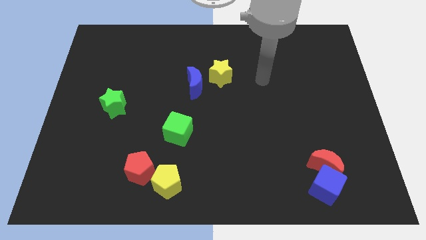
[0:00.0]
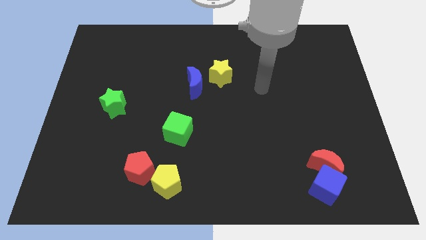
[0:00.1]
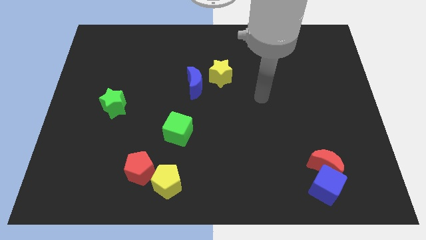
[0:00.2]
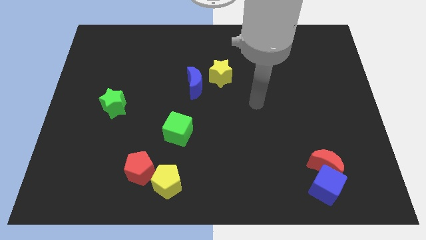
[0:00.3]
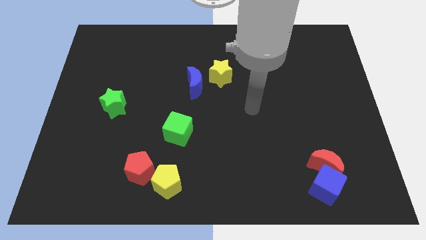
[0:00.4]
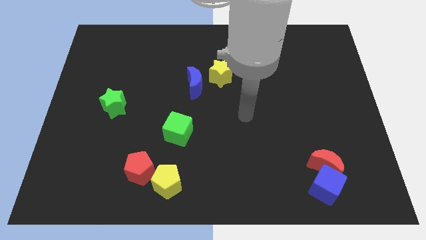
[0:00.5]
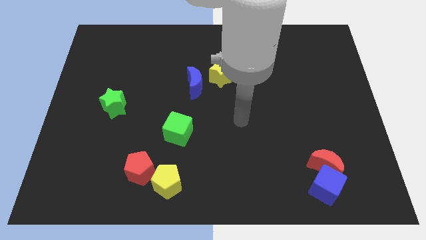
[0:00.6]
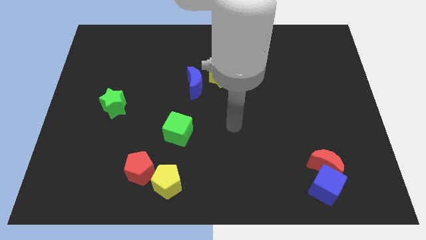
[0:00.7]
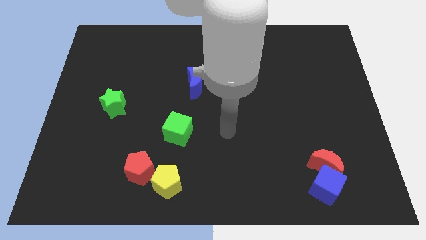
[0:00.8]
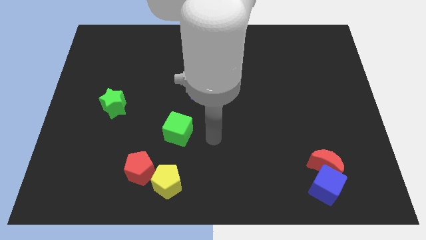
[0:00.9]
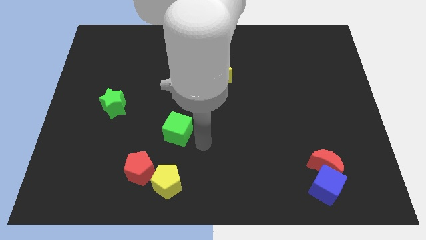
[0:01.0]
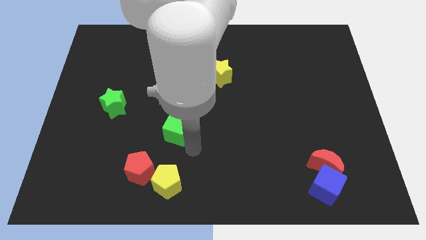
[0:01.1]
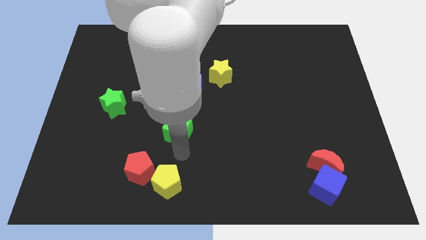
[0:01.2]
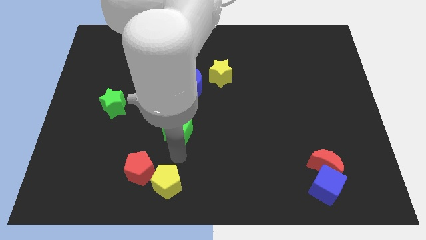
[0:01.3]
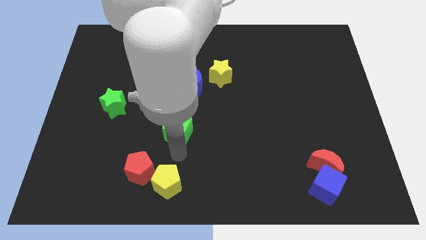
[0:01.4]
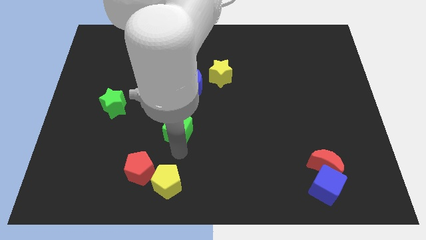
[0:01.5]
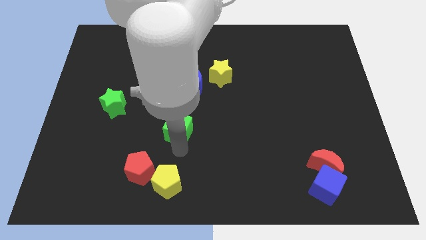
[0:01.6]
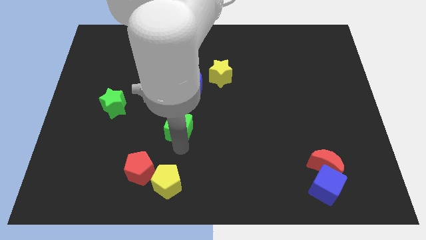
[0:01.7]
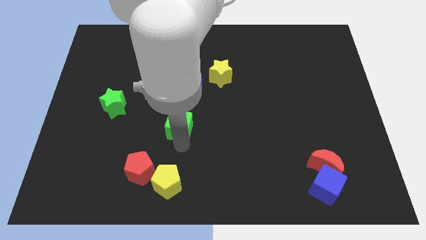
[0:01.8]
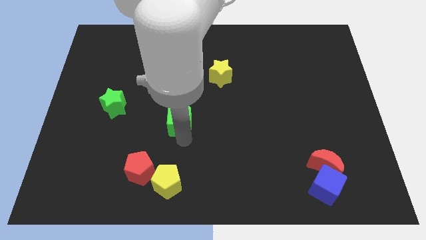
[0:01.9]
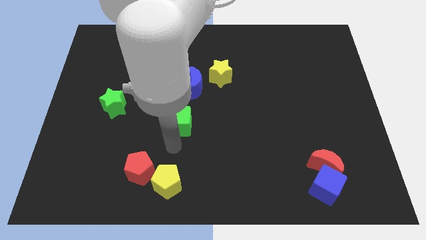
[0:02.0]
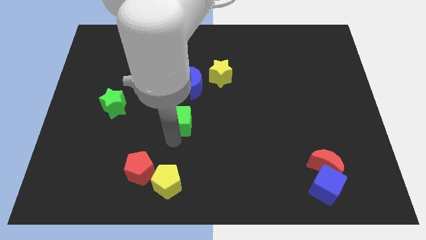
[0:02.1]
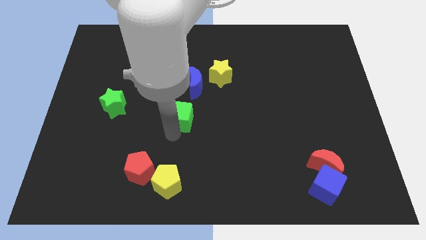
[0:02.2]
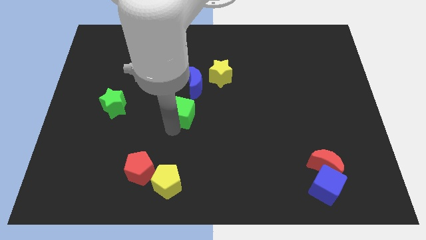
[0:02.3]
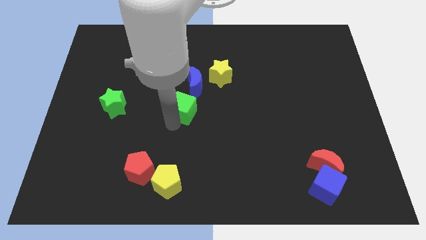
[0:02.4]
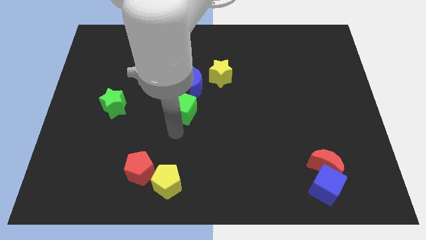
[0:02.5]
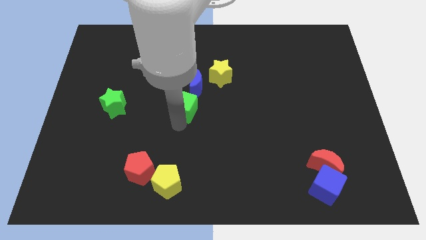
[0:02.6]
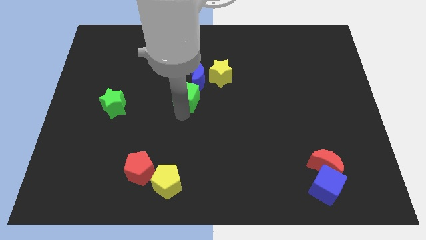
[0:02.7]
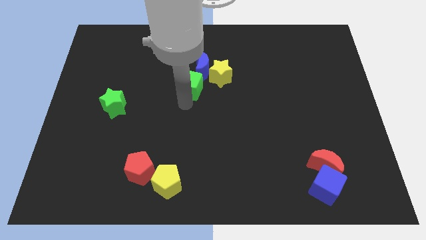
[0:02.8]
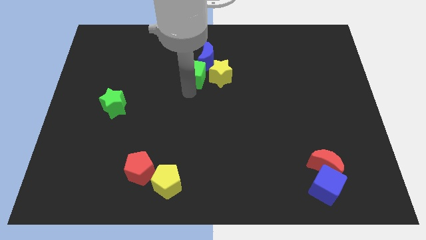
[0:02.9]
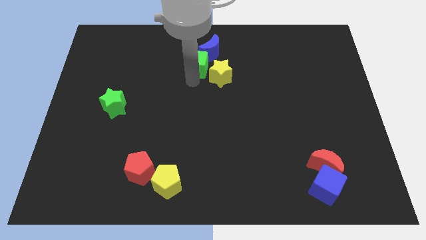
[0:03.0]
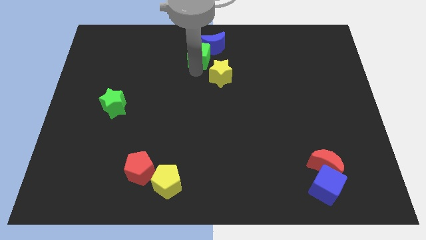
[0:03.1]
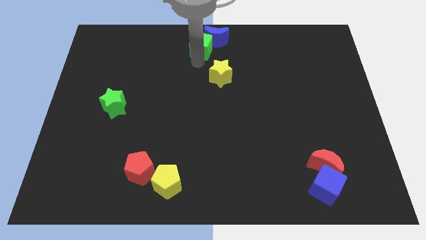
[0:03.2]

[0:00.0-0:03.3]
move the green cube to the towards your base

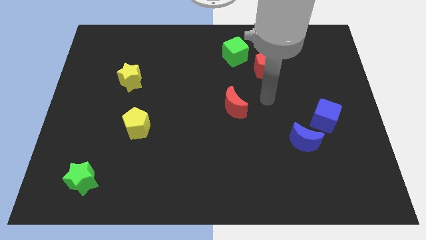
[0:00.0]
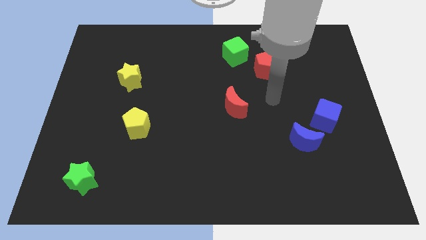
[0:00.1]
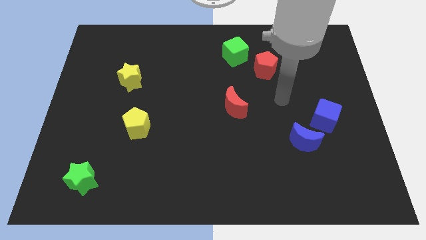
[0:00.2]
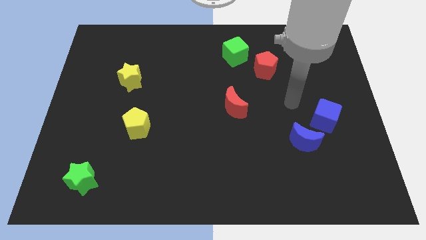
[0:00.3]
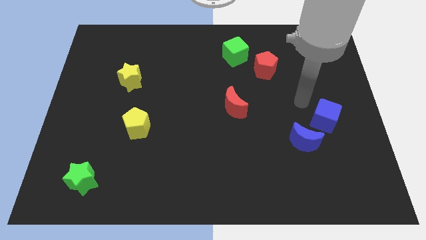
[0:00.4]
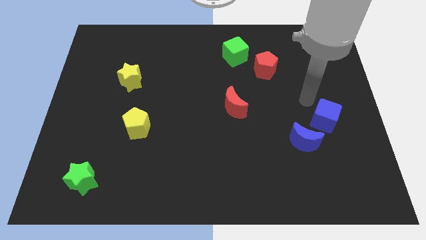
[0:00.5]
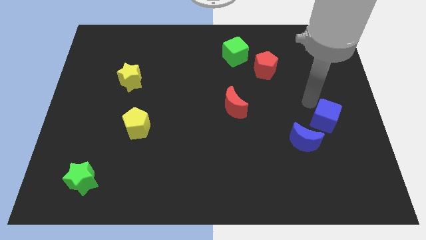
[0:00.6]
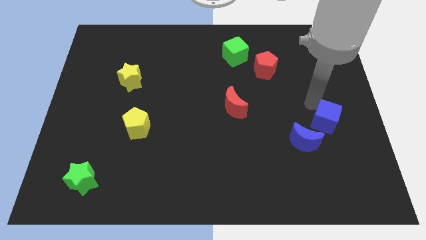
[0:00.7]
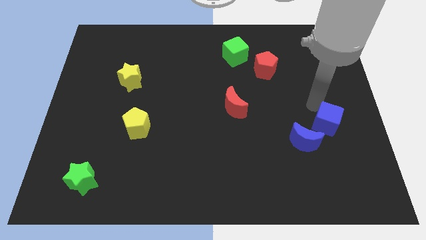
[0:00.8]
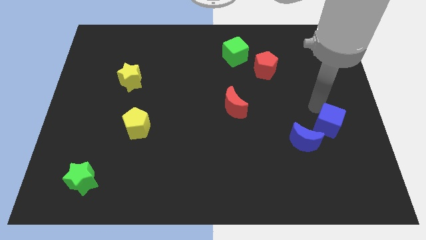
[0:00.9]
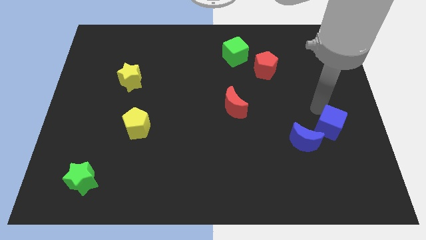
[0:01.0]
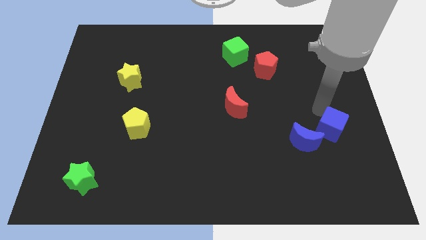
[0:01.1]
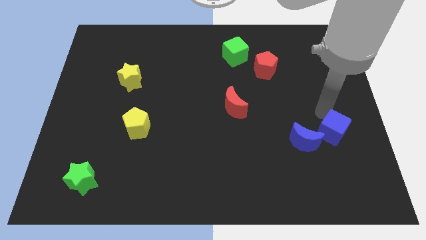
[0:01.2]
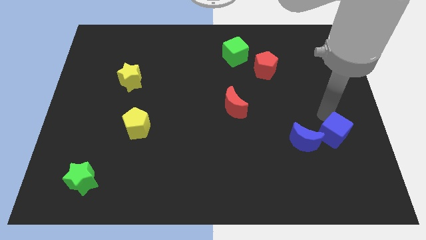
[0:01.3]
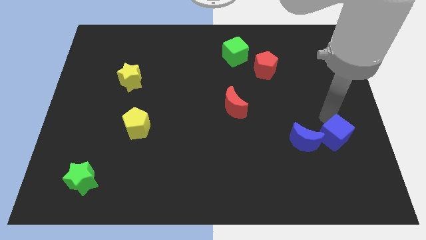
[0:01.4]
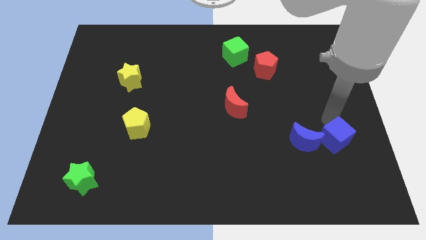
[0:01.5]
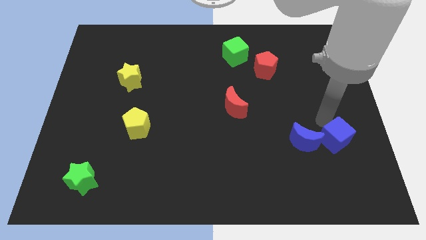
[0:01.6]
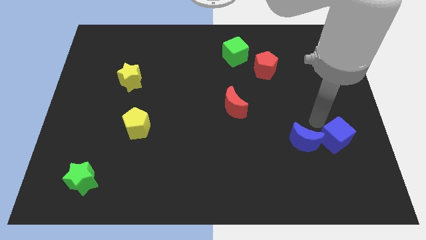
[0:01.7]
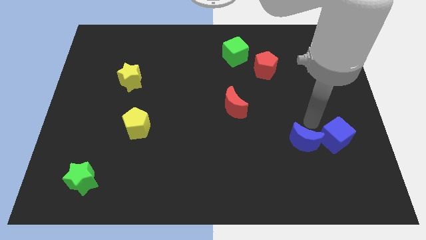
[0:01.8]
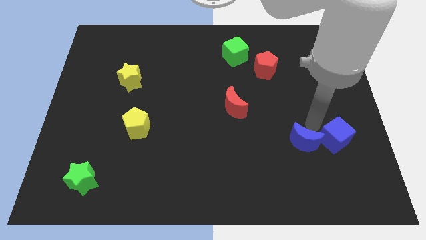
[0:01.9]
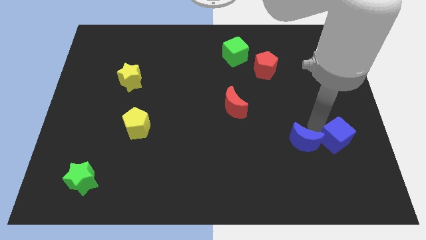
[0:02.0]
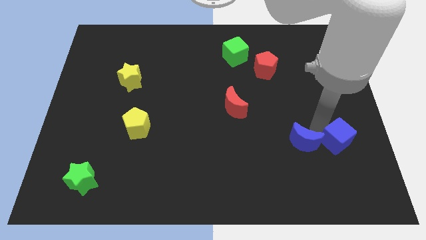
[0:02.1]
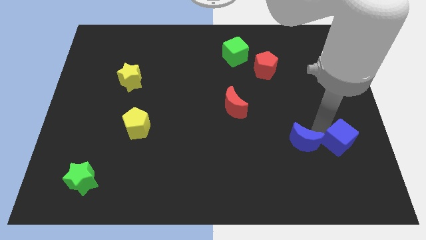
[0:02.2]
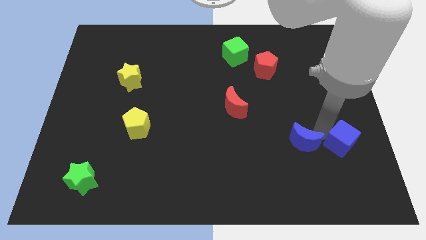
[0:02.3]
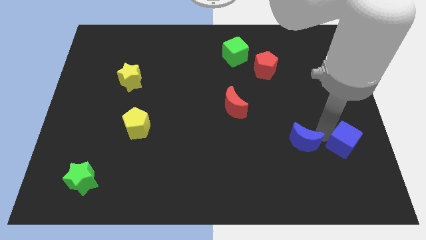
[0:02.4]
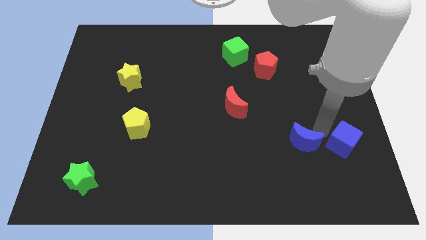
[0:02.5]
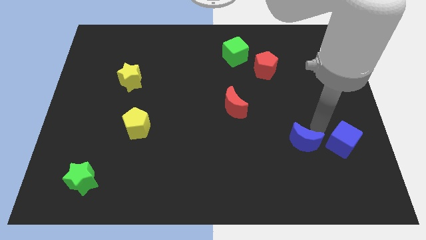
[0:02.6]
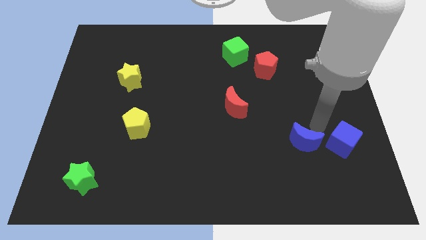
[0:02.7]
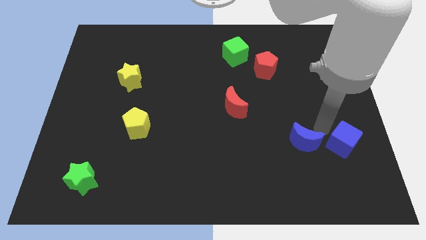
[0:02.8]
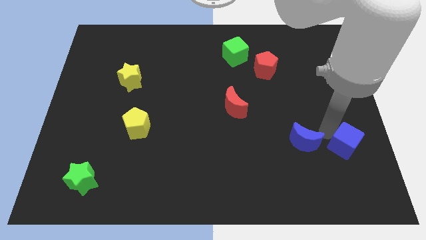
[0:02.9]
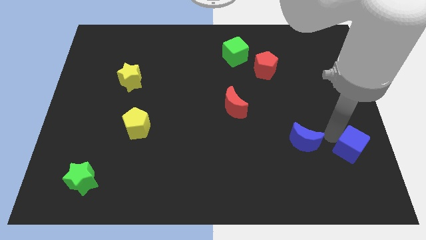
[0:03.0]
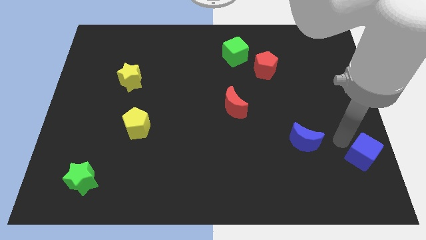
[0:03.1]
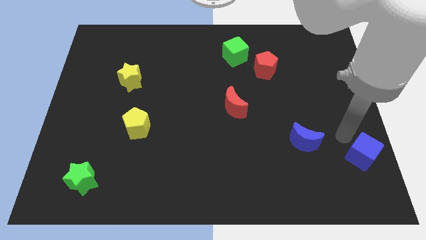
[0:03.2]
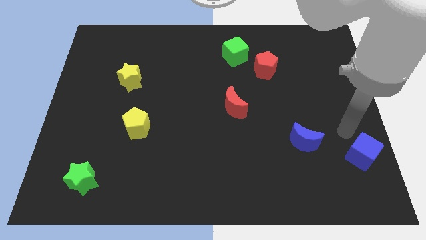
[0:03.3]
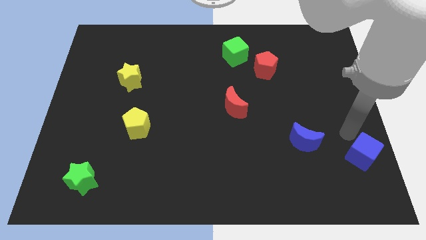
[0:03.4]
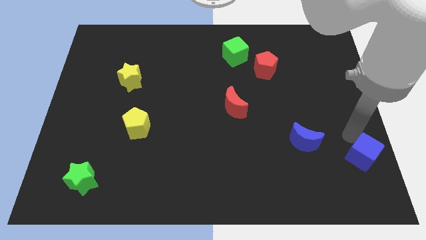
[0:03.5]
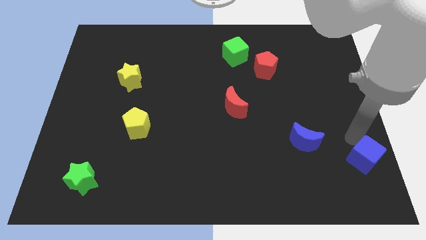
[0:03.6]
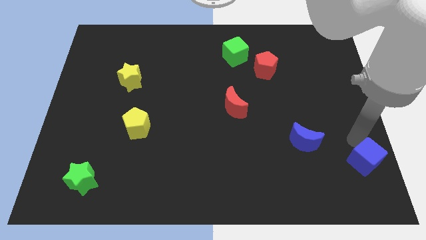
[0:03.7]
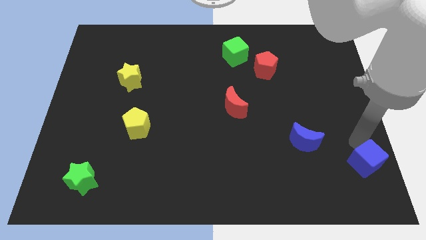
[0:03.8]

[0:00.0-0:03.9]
slide the blue cube to the bottom right of the board
